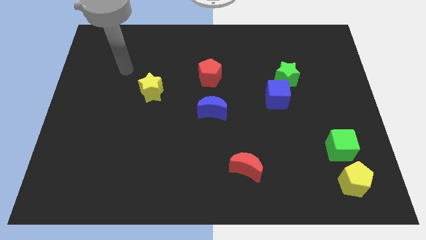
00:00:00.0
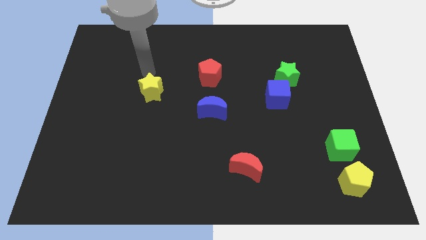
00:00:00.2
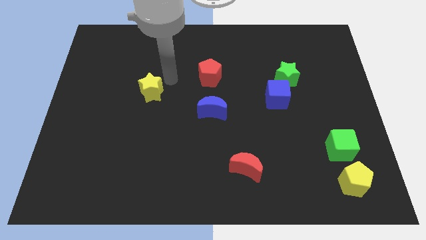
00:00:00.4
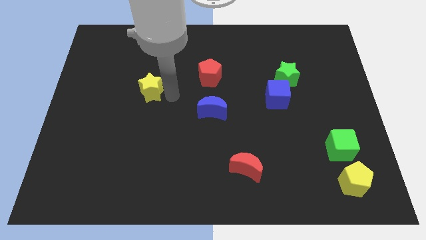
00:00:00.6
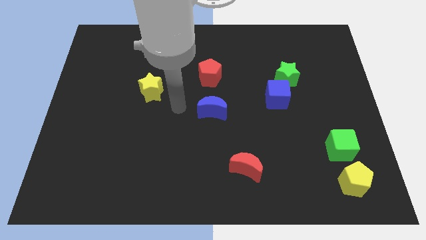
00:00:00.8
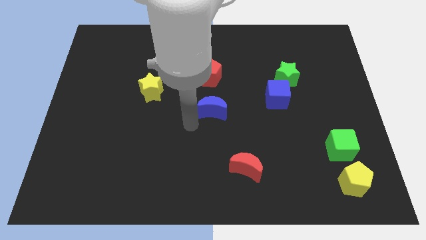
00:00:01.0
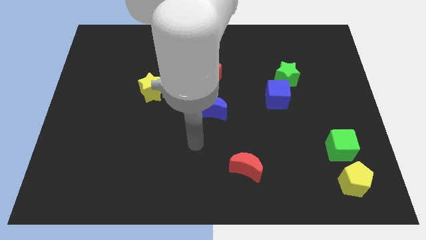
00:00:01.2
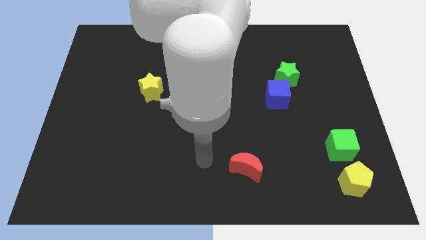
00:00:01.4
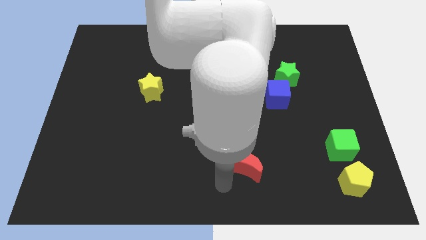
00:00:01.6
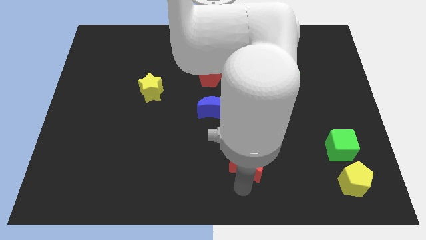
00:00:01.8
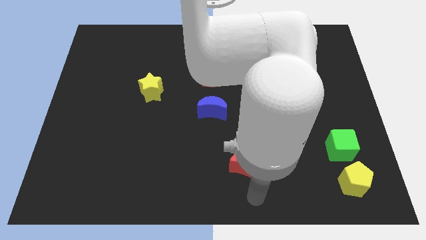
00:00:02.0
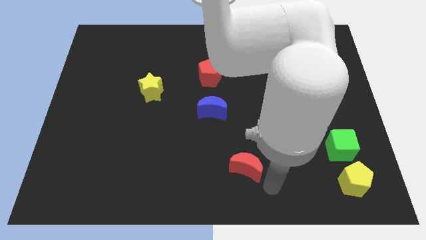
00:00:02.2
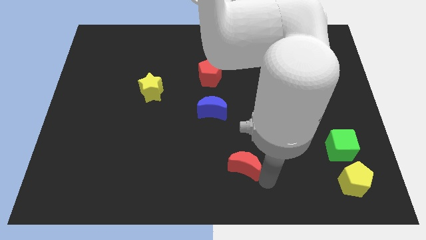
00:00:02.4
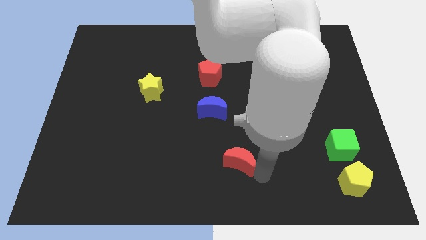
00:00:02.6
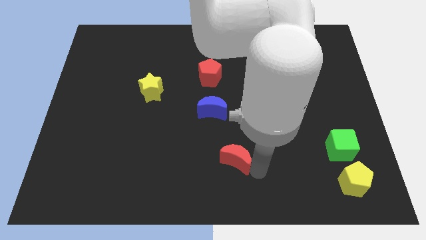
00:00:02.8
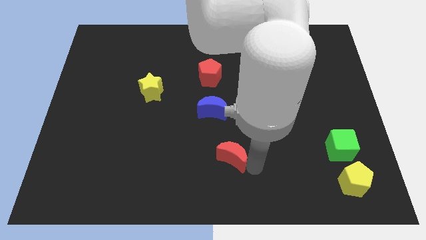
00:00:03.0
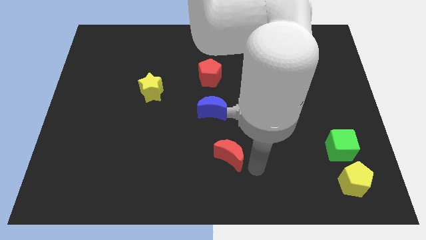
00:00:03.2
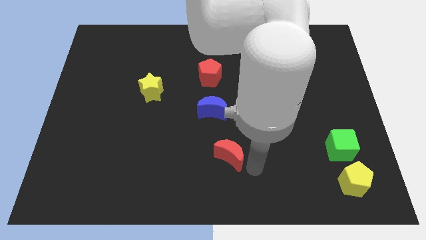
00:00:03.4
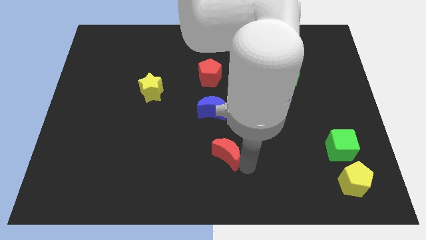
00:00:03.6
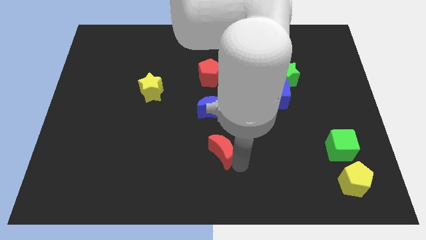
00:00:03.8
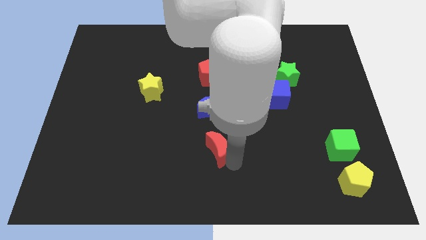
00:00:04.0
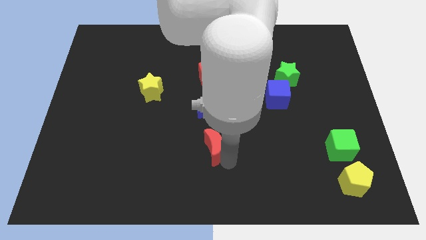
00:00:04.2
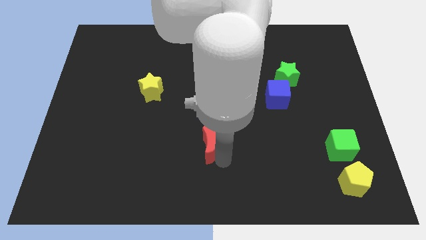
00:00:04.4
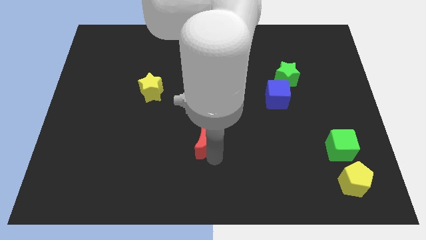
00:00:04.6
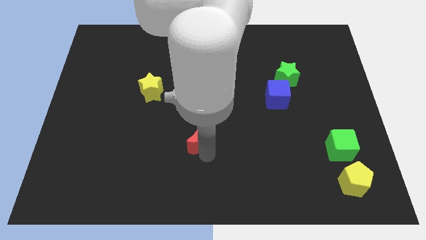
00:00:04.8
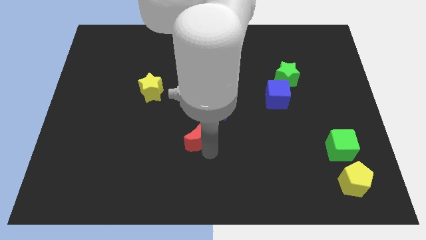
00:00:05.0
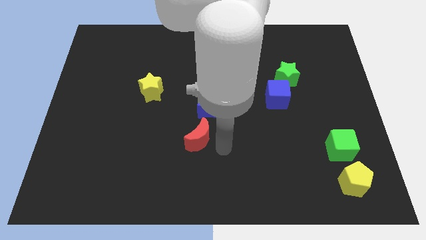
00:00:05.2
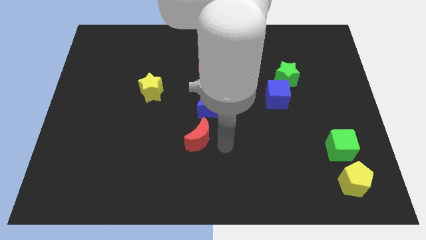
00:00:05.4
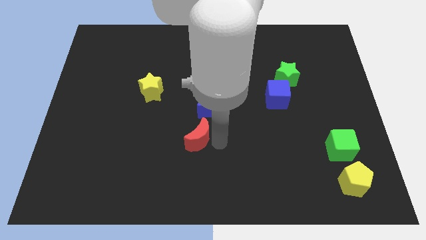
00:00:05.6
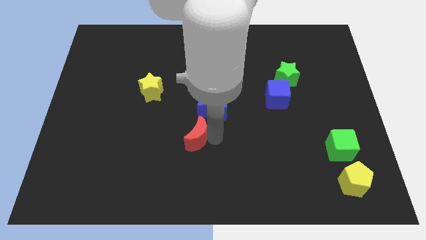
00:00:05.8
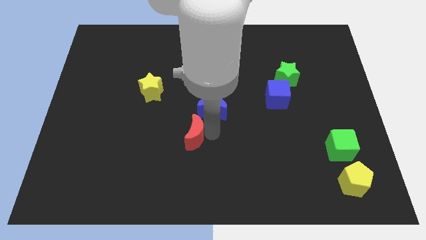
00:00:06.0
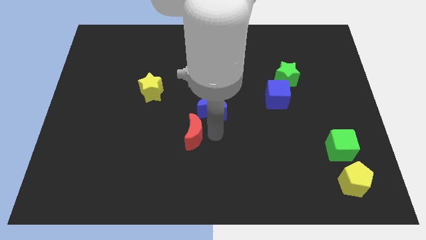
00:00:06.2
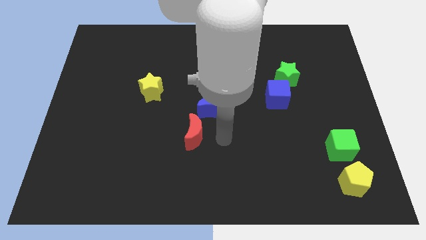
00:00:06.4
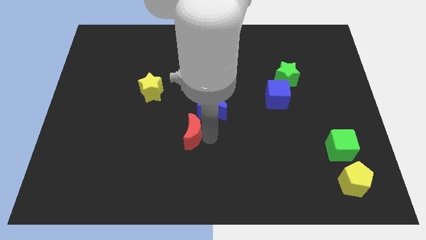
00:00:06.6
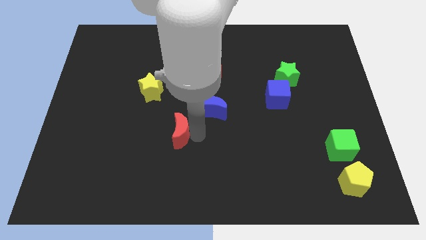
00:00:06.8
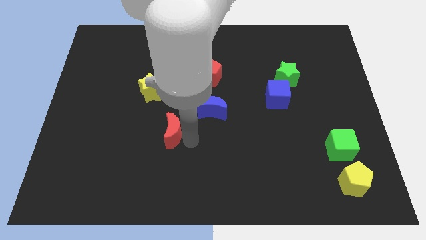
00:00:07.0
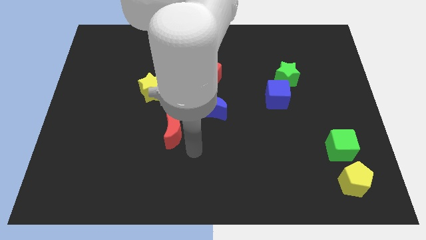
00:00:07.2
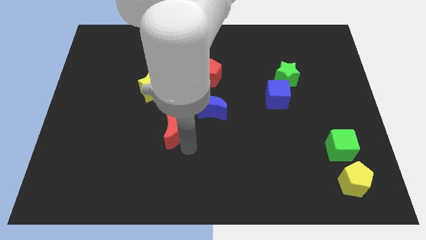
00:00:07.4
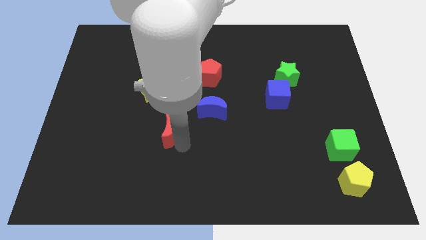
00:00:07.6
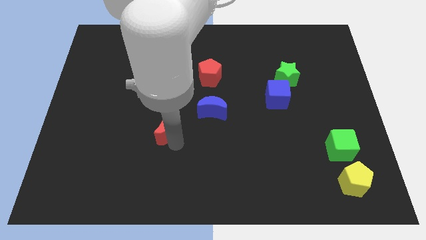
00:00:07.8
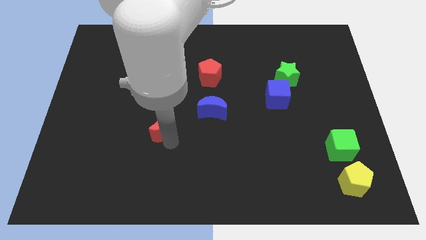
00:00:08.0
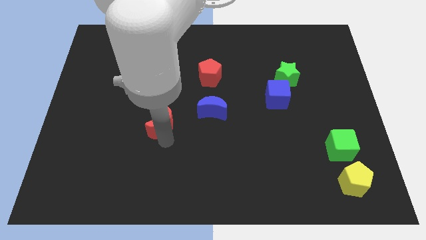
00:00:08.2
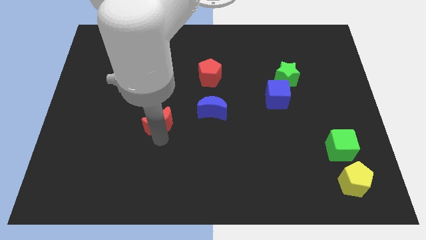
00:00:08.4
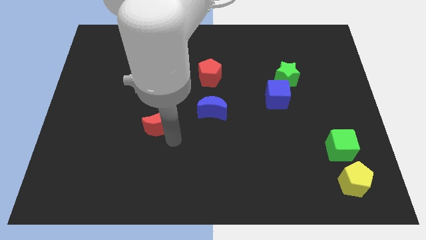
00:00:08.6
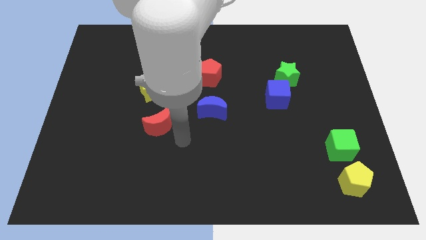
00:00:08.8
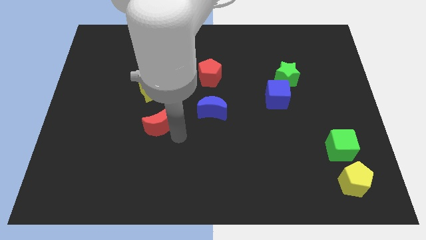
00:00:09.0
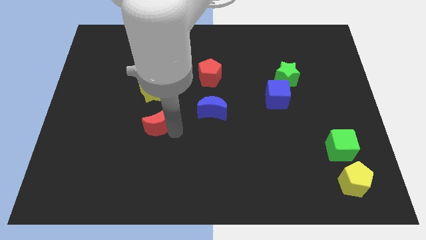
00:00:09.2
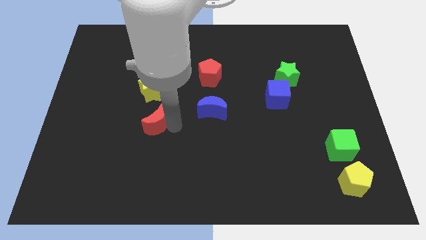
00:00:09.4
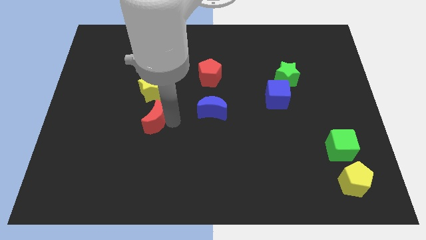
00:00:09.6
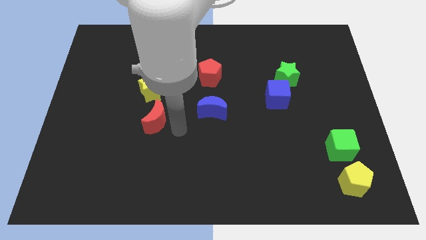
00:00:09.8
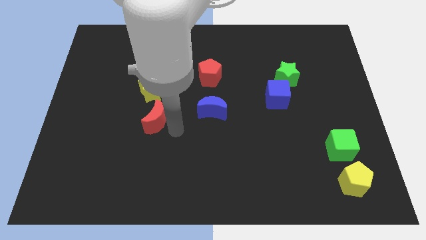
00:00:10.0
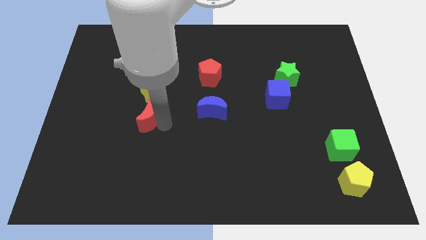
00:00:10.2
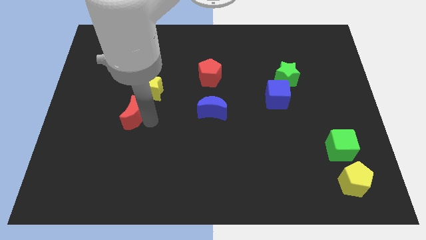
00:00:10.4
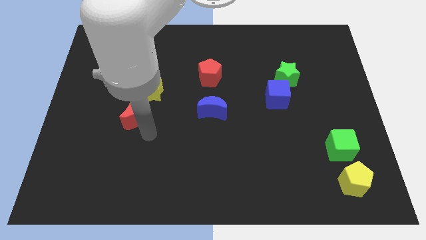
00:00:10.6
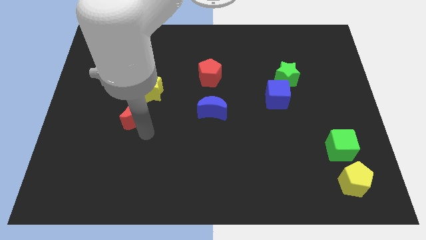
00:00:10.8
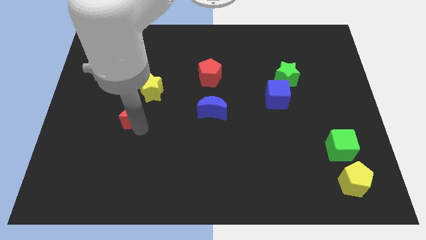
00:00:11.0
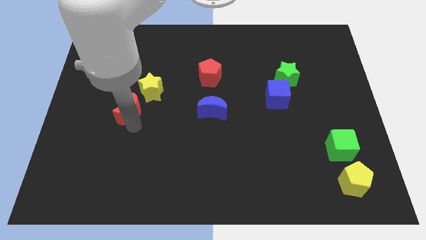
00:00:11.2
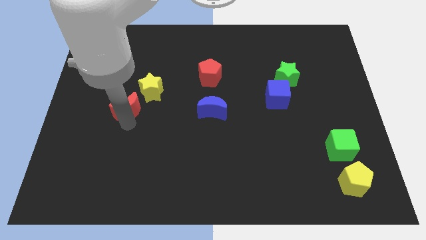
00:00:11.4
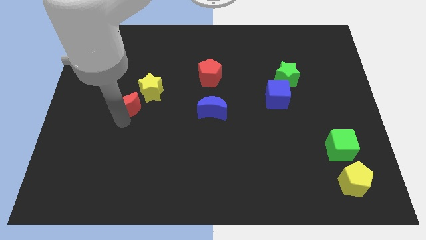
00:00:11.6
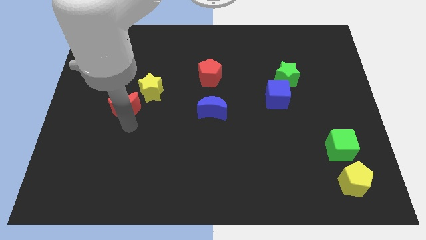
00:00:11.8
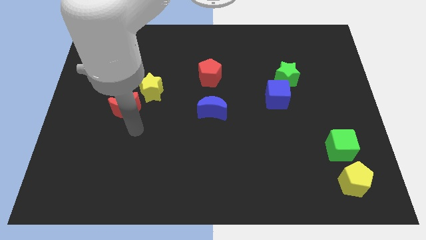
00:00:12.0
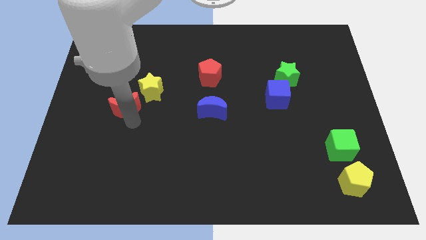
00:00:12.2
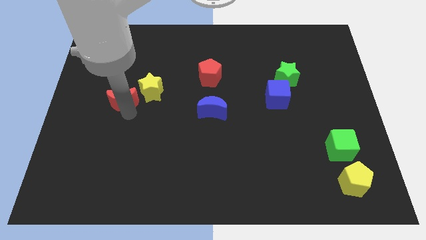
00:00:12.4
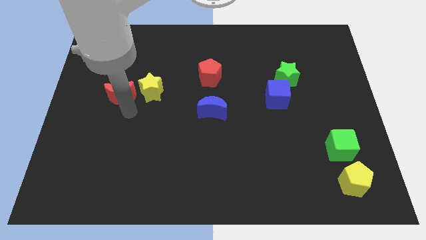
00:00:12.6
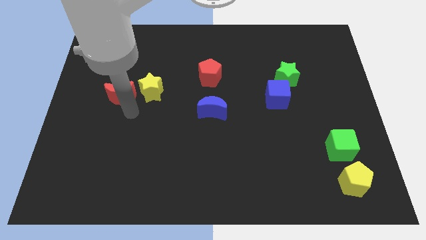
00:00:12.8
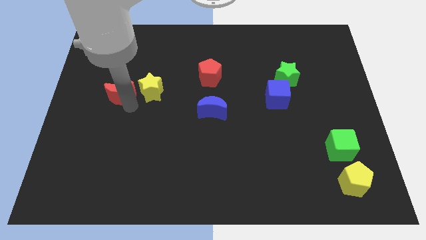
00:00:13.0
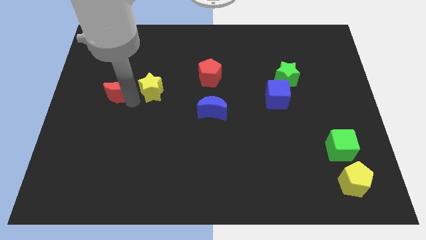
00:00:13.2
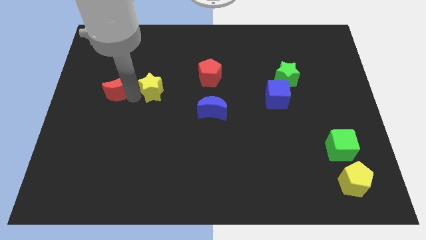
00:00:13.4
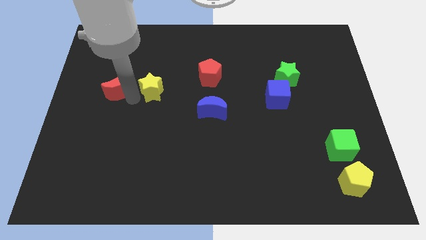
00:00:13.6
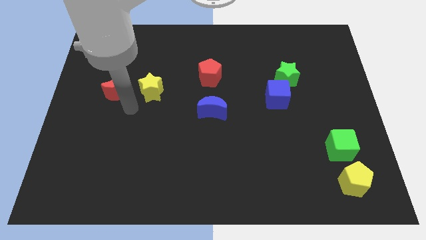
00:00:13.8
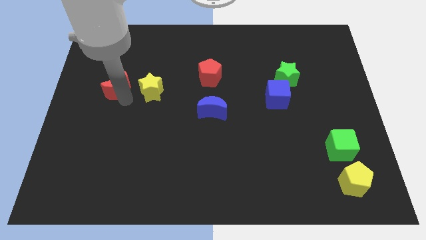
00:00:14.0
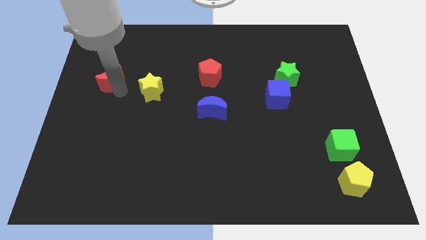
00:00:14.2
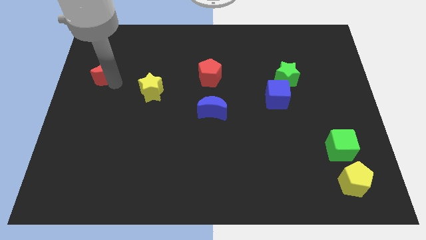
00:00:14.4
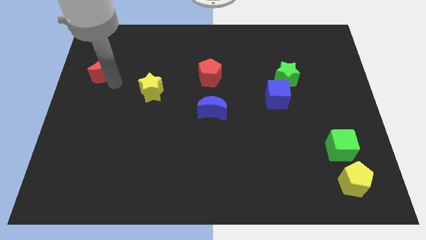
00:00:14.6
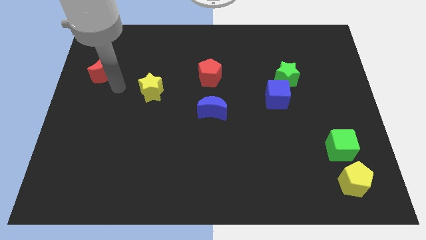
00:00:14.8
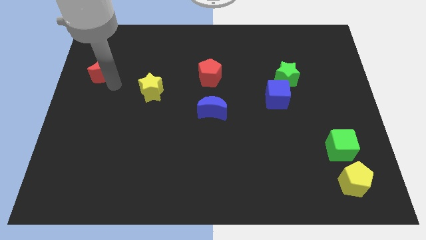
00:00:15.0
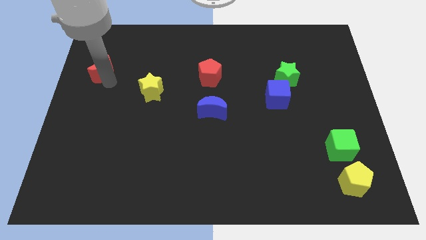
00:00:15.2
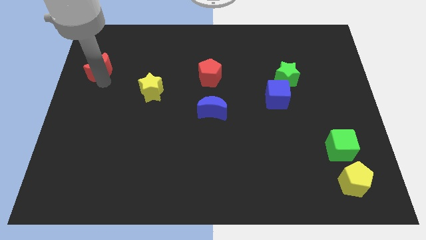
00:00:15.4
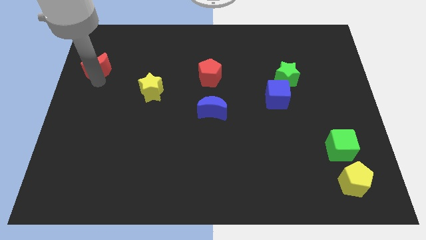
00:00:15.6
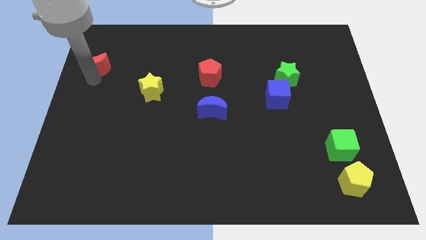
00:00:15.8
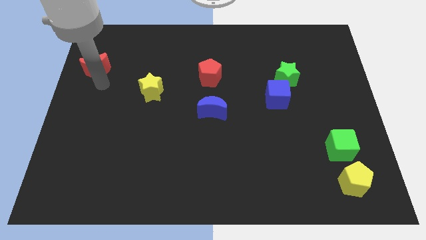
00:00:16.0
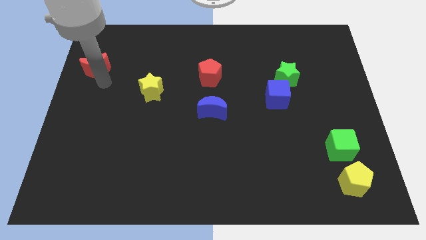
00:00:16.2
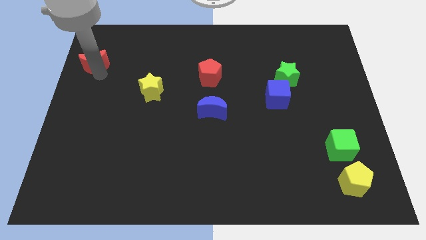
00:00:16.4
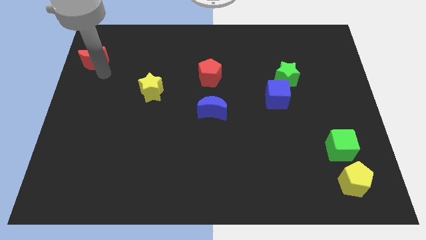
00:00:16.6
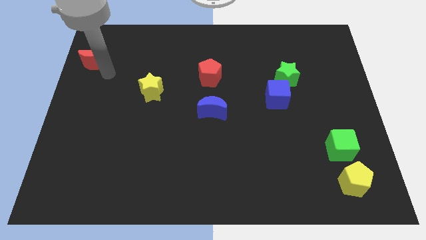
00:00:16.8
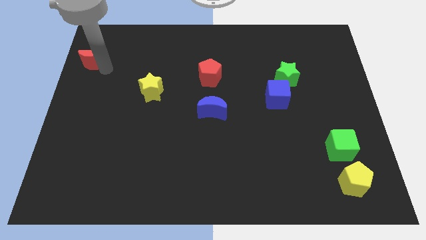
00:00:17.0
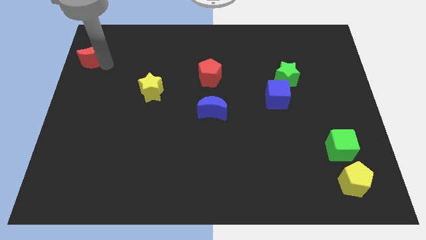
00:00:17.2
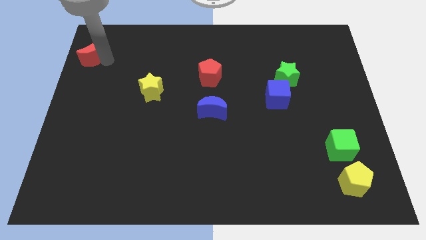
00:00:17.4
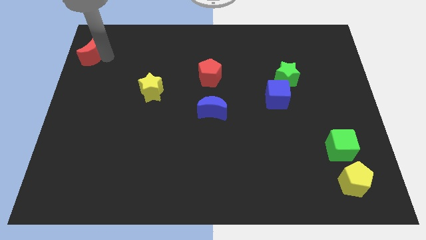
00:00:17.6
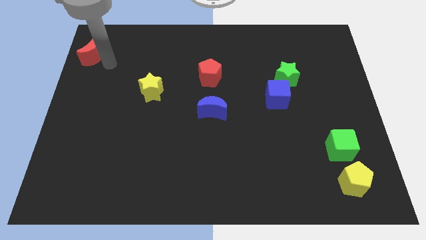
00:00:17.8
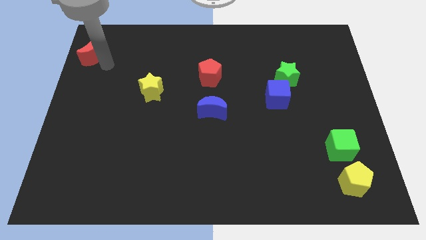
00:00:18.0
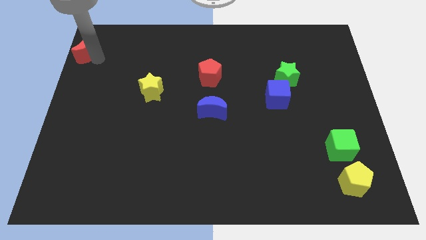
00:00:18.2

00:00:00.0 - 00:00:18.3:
put the red moon to the top left of the board
